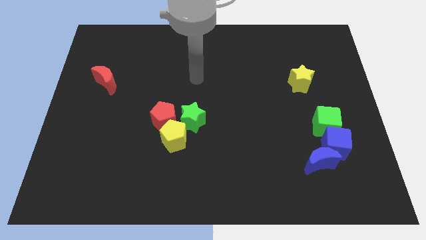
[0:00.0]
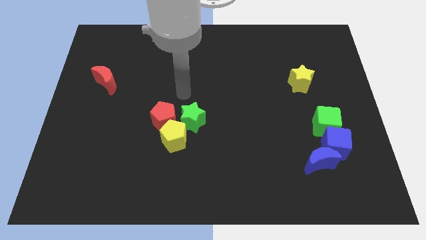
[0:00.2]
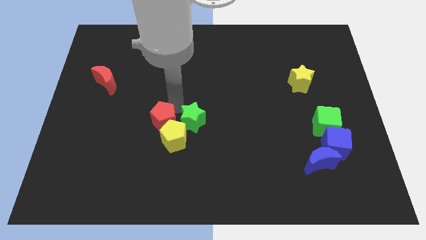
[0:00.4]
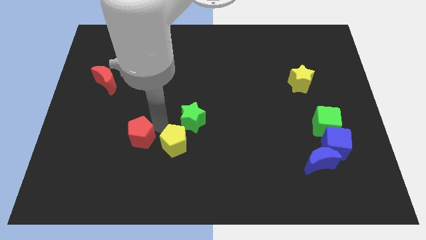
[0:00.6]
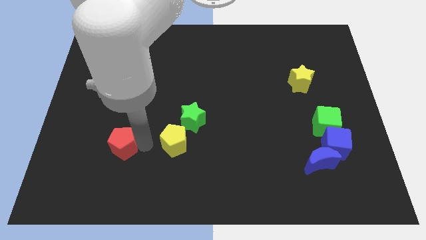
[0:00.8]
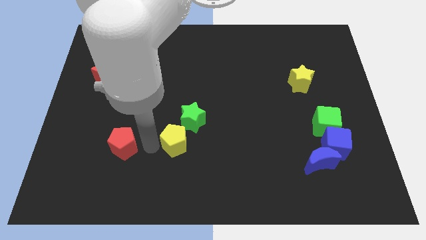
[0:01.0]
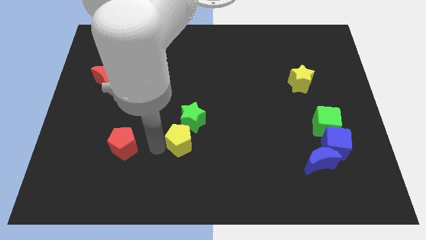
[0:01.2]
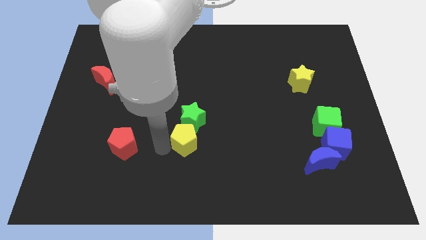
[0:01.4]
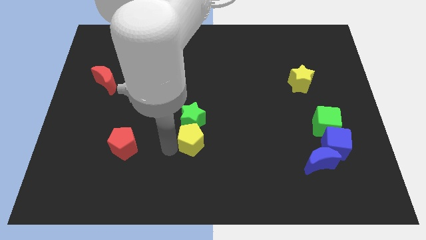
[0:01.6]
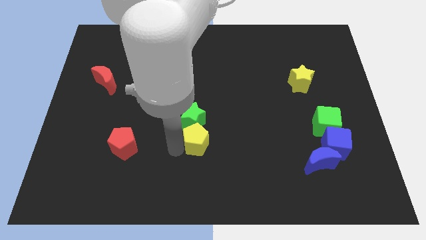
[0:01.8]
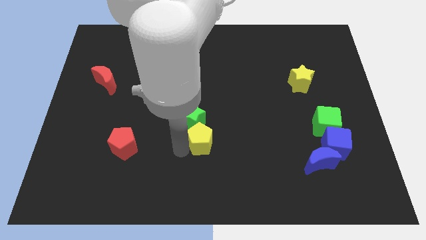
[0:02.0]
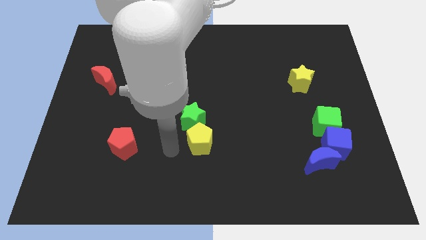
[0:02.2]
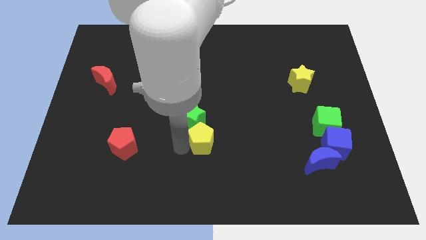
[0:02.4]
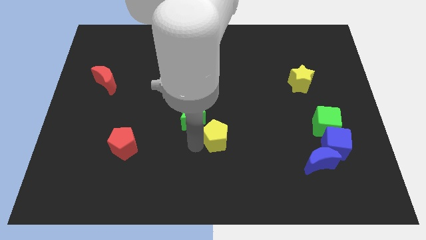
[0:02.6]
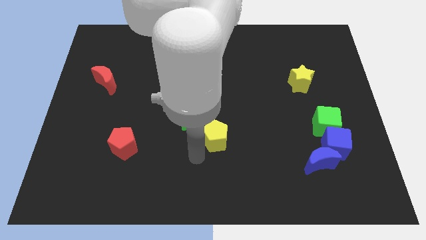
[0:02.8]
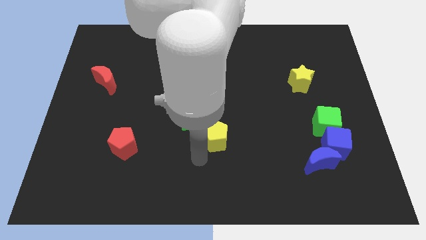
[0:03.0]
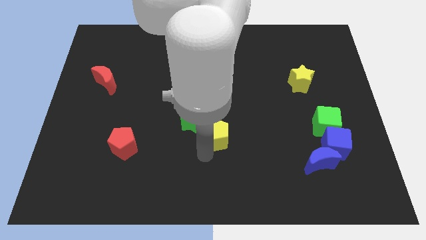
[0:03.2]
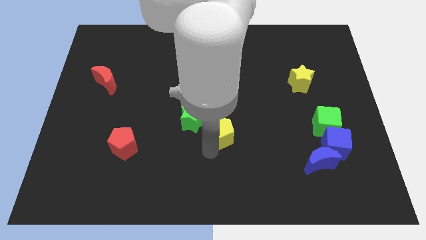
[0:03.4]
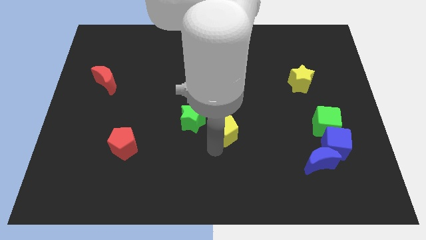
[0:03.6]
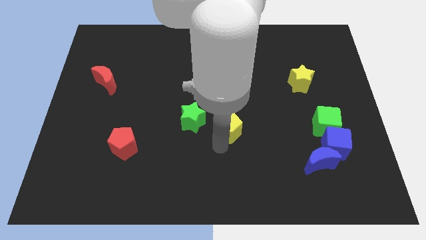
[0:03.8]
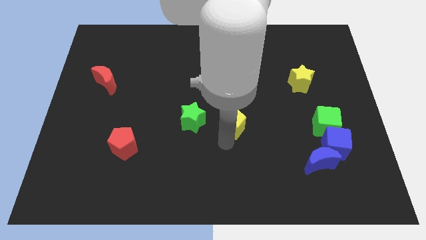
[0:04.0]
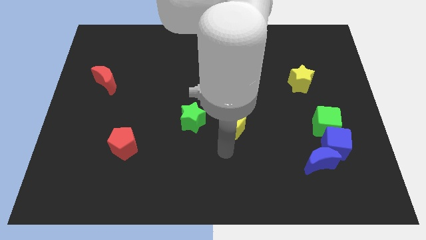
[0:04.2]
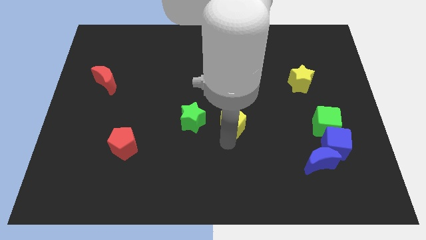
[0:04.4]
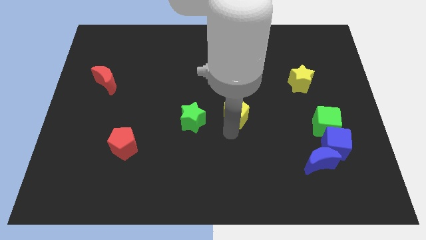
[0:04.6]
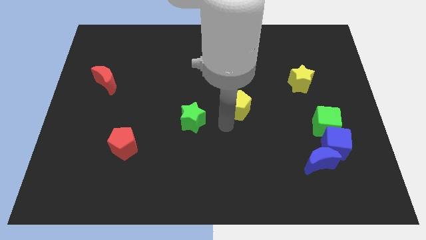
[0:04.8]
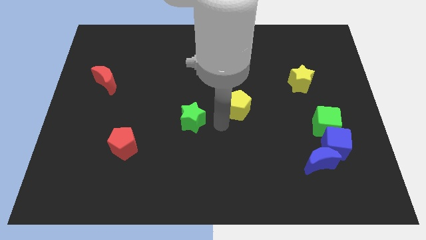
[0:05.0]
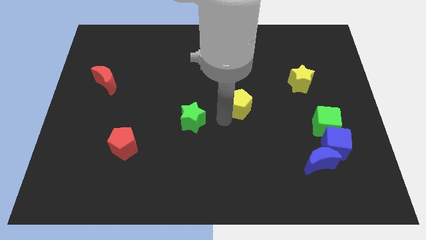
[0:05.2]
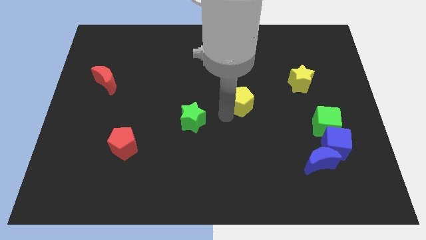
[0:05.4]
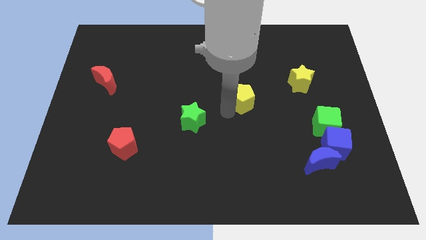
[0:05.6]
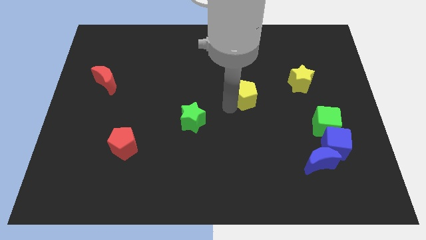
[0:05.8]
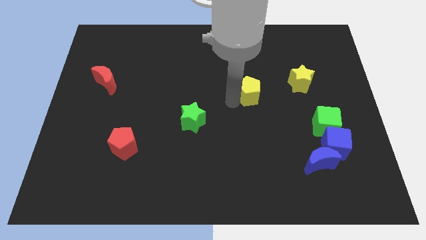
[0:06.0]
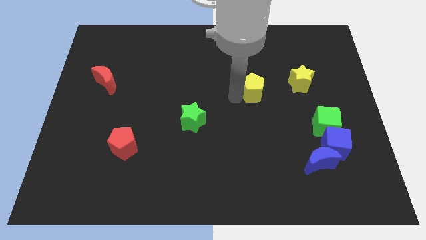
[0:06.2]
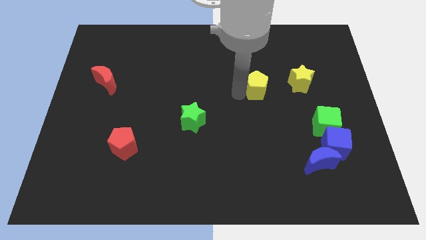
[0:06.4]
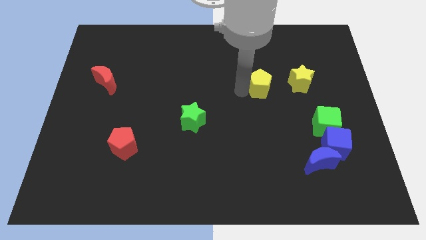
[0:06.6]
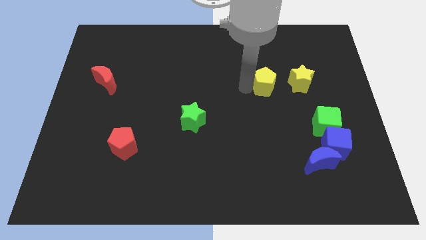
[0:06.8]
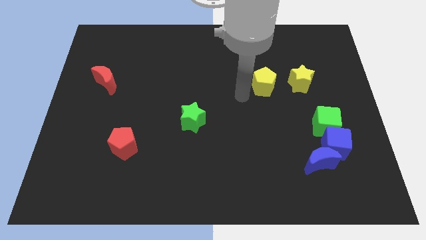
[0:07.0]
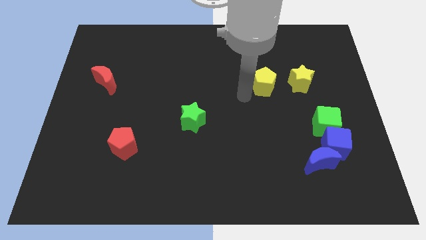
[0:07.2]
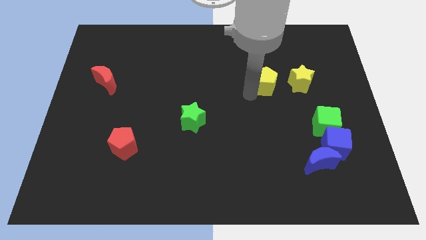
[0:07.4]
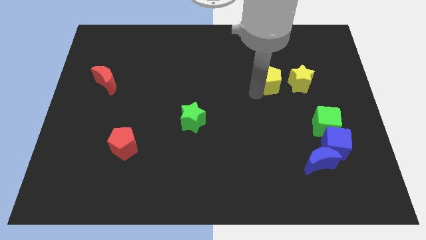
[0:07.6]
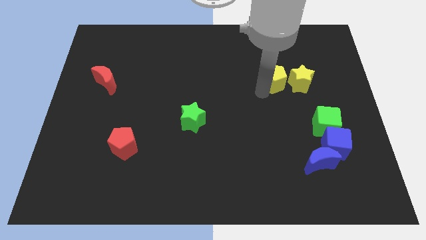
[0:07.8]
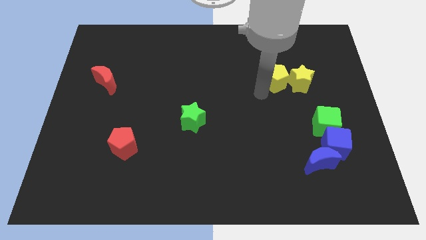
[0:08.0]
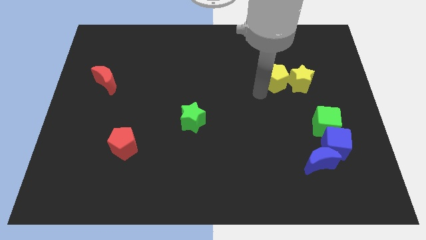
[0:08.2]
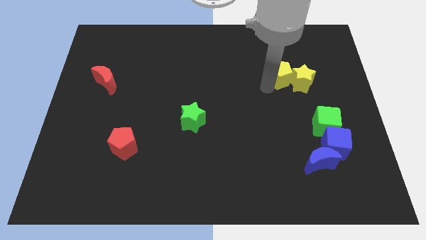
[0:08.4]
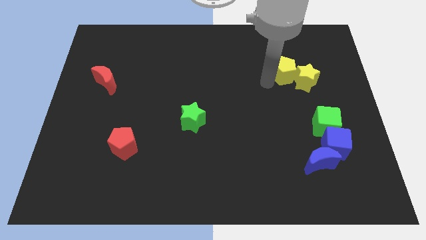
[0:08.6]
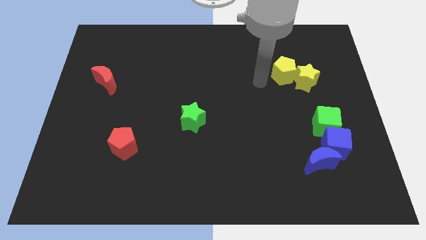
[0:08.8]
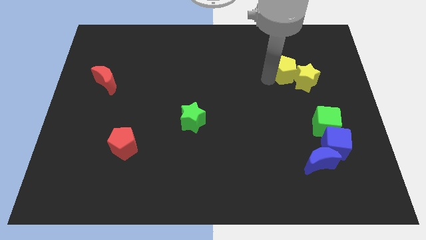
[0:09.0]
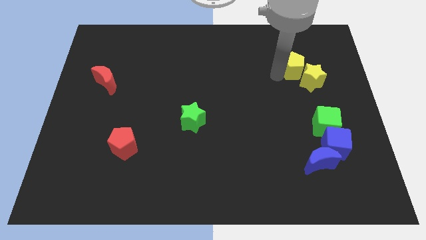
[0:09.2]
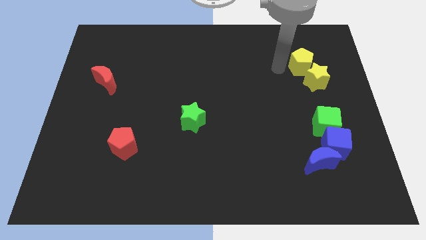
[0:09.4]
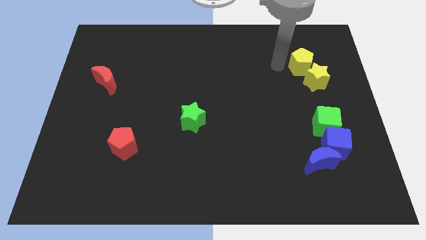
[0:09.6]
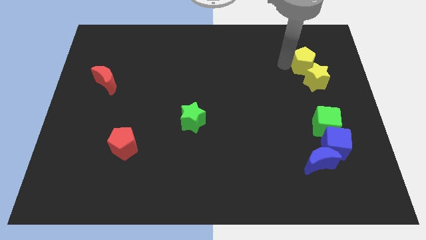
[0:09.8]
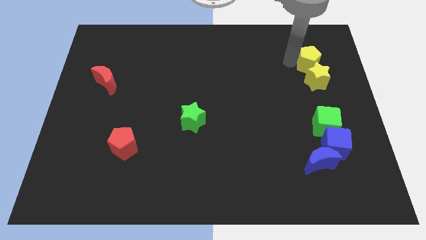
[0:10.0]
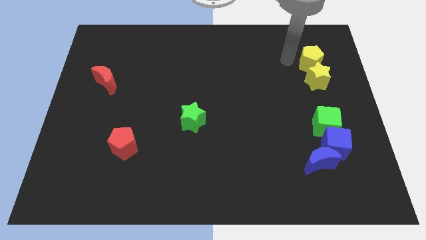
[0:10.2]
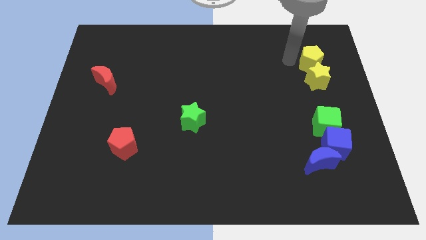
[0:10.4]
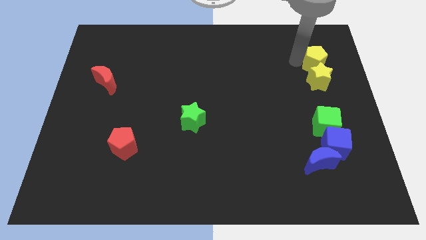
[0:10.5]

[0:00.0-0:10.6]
move the yellow pentagon to the top right of the yellow star

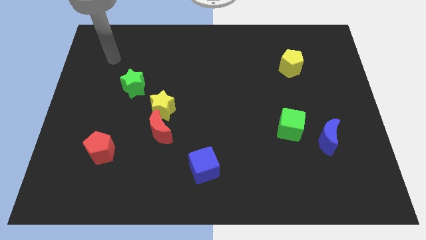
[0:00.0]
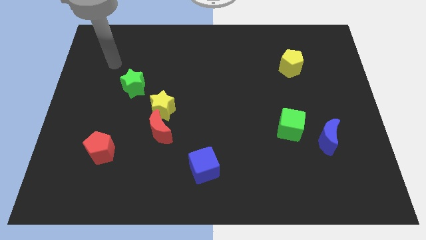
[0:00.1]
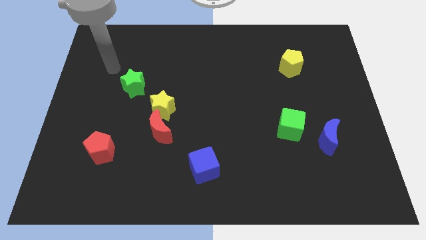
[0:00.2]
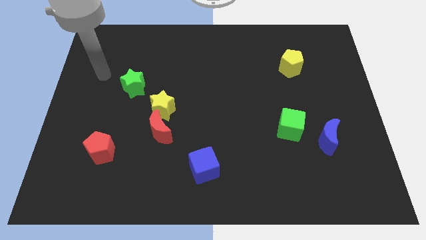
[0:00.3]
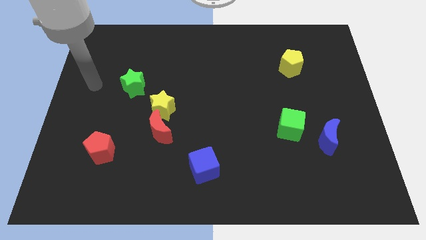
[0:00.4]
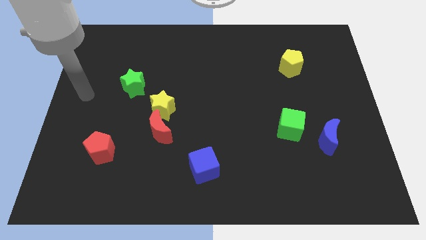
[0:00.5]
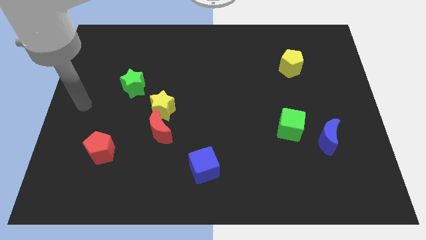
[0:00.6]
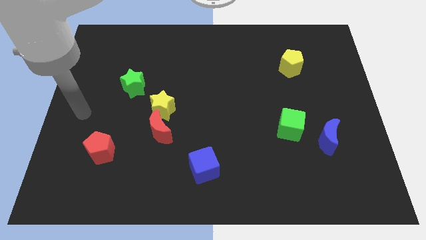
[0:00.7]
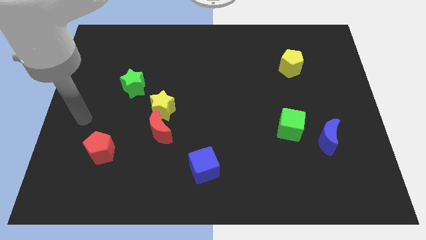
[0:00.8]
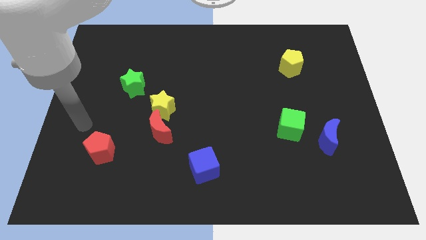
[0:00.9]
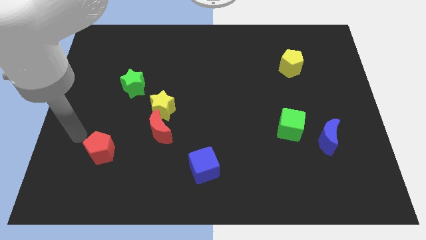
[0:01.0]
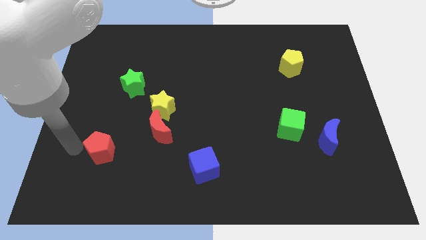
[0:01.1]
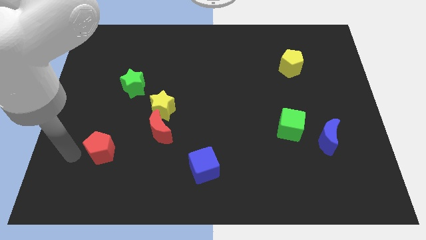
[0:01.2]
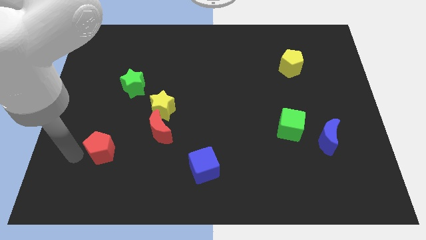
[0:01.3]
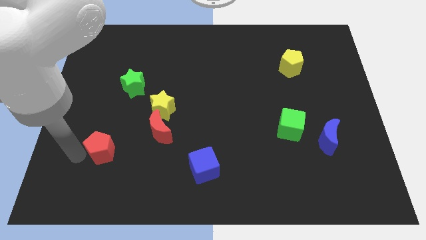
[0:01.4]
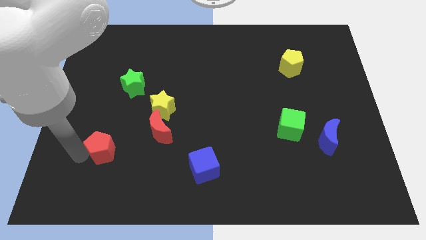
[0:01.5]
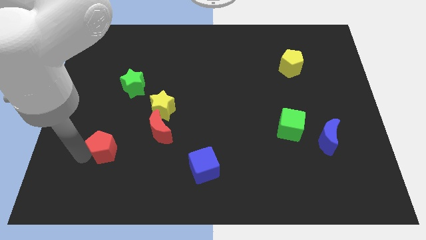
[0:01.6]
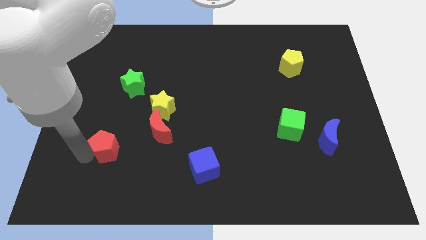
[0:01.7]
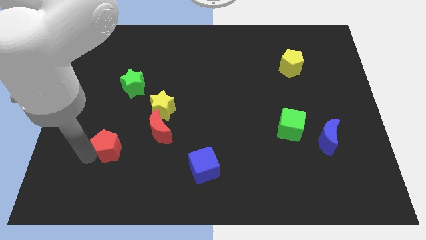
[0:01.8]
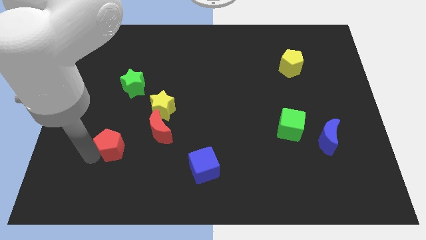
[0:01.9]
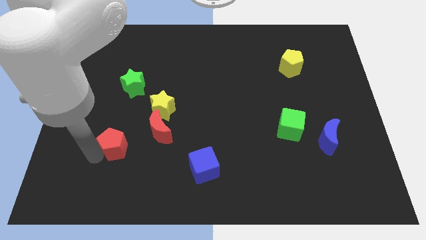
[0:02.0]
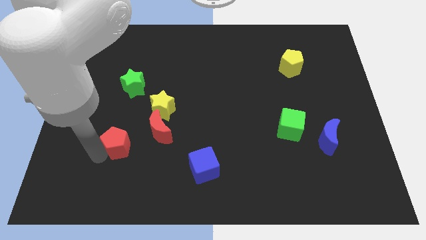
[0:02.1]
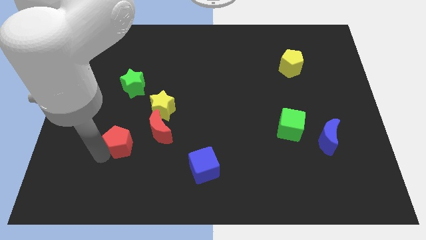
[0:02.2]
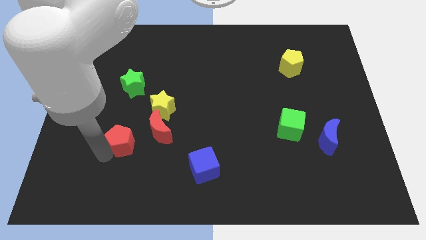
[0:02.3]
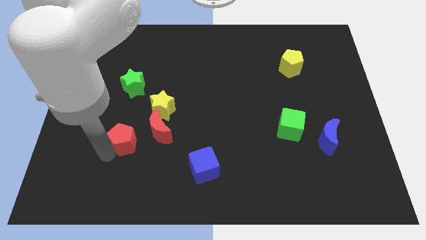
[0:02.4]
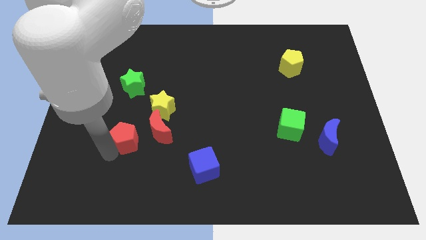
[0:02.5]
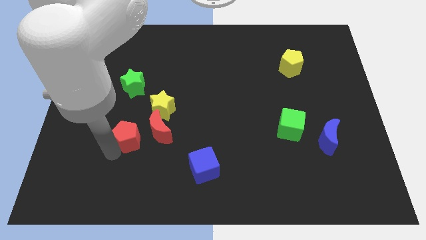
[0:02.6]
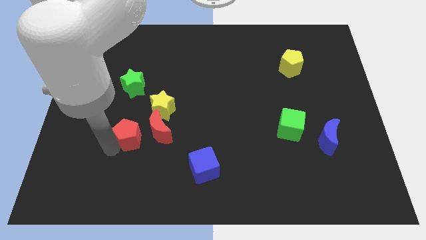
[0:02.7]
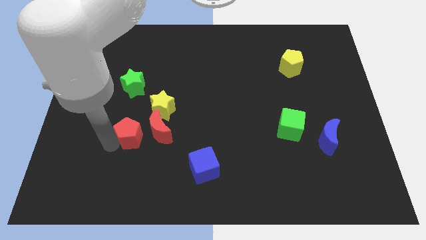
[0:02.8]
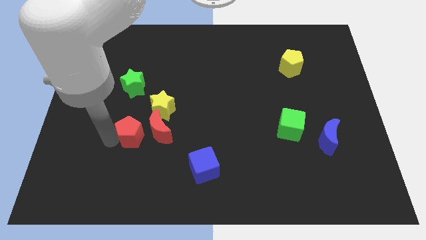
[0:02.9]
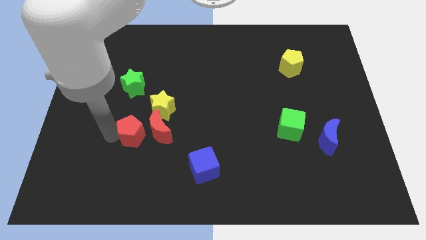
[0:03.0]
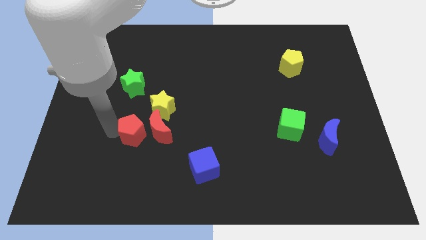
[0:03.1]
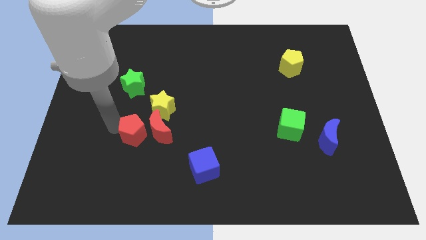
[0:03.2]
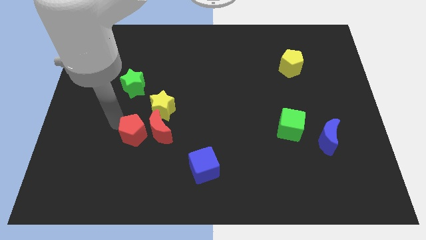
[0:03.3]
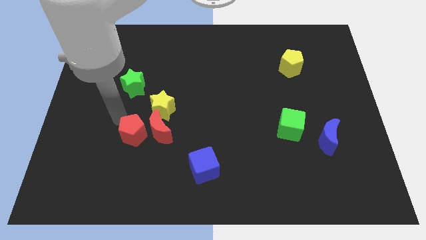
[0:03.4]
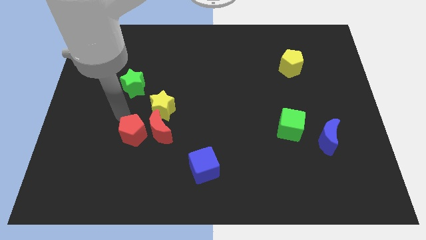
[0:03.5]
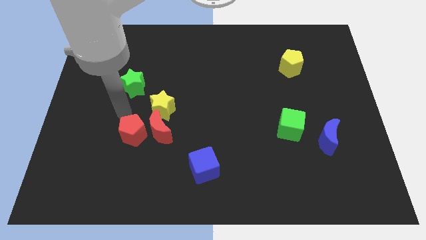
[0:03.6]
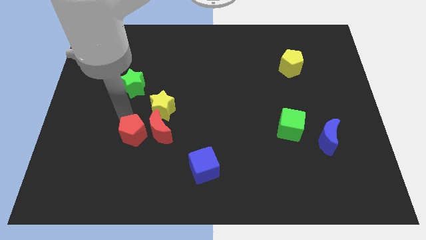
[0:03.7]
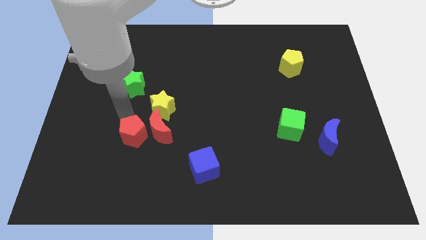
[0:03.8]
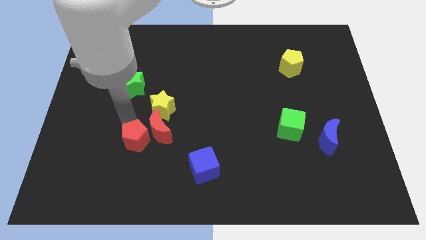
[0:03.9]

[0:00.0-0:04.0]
put the red pentagon to the bottom of the yellow star
